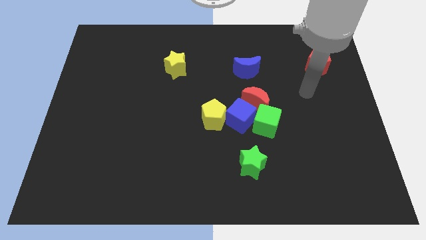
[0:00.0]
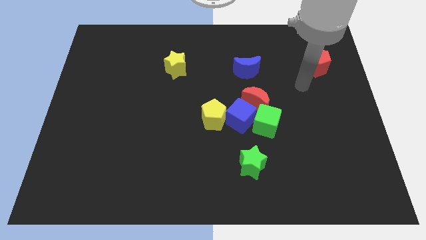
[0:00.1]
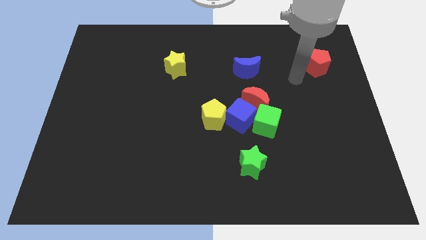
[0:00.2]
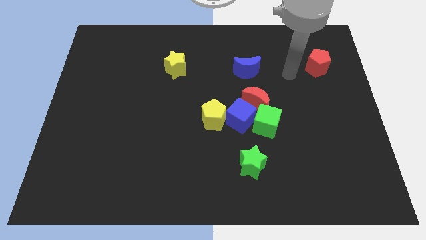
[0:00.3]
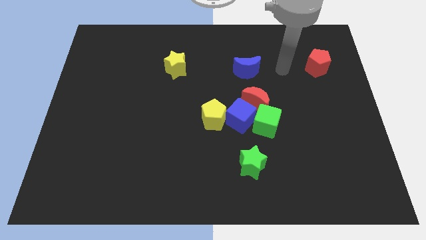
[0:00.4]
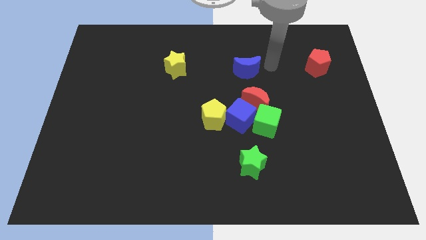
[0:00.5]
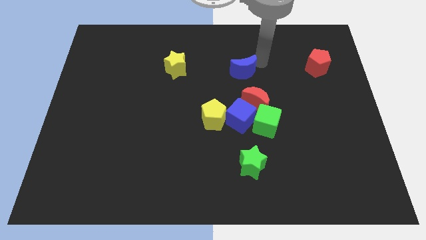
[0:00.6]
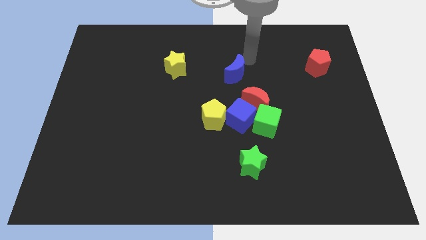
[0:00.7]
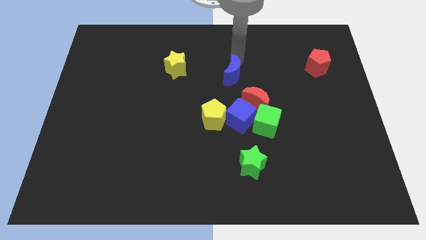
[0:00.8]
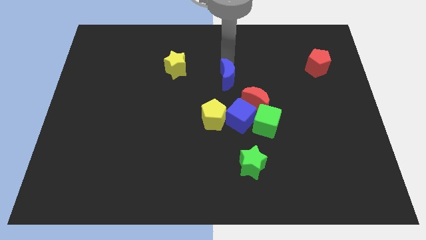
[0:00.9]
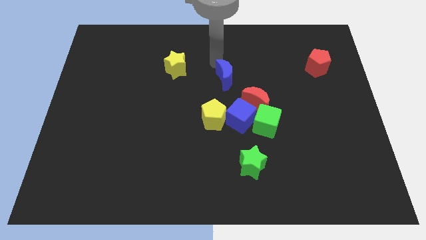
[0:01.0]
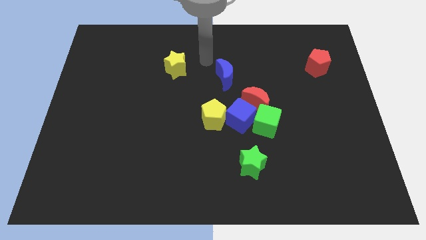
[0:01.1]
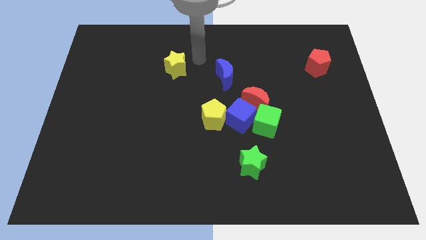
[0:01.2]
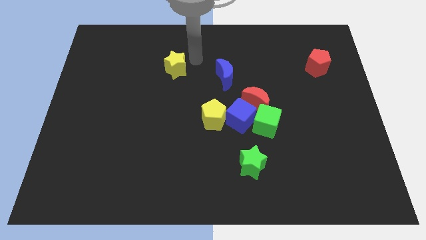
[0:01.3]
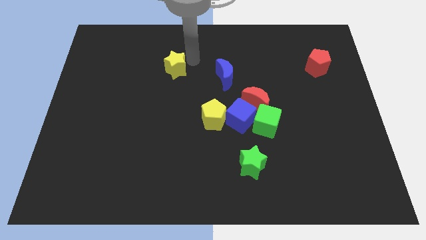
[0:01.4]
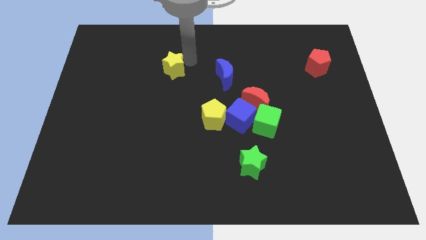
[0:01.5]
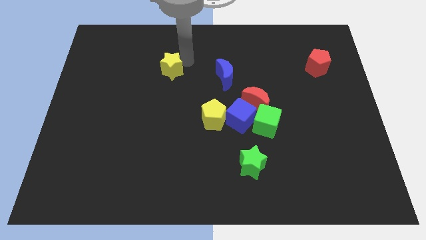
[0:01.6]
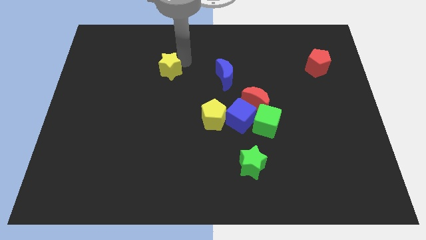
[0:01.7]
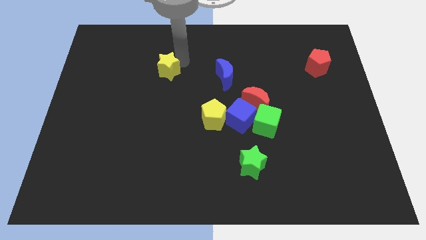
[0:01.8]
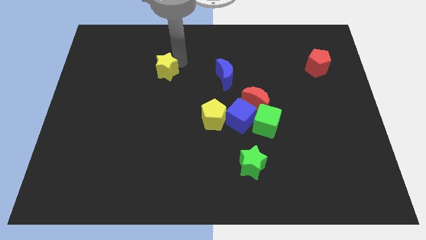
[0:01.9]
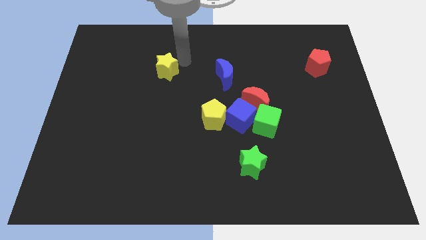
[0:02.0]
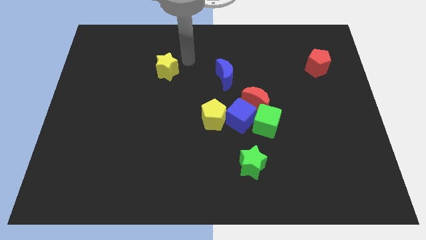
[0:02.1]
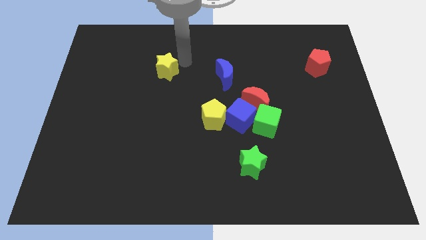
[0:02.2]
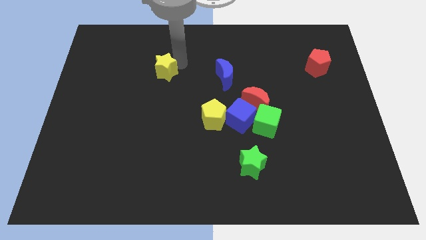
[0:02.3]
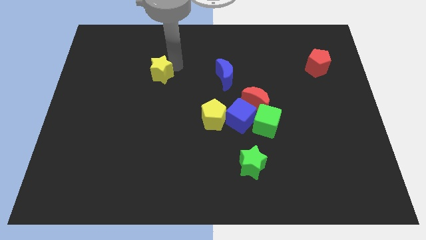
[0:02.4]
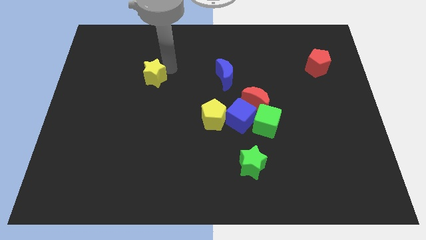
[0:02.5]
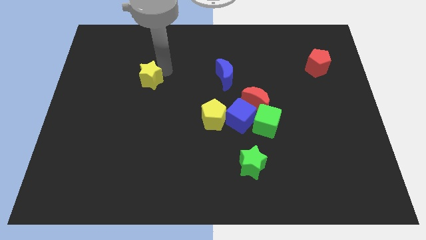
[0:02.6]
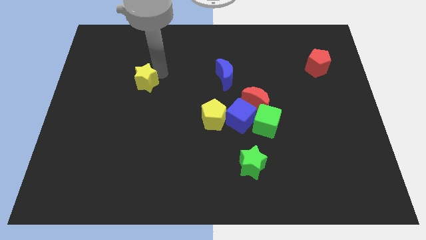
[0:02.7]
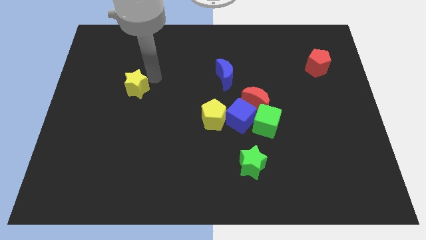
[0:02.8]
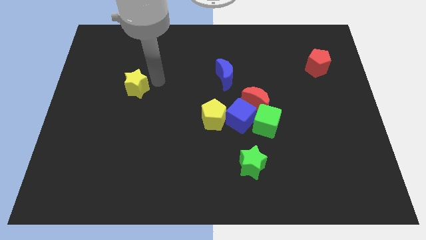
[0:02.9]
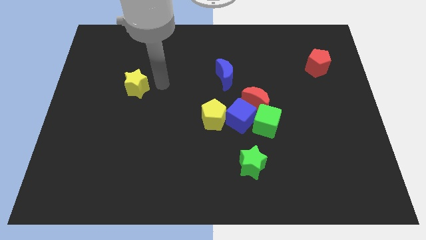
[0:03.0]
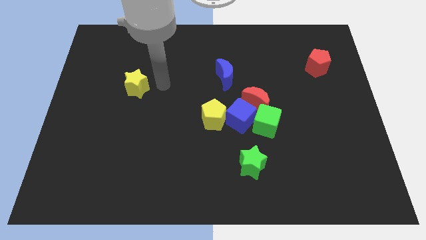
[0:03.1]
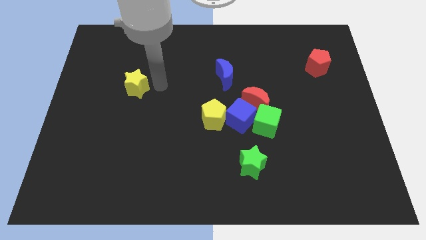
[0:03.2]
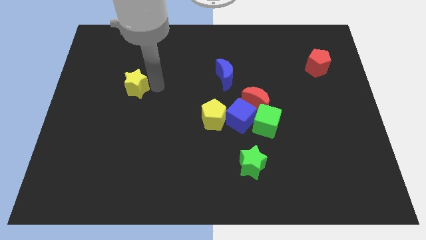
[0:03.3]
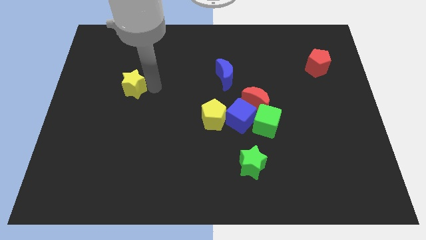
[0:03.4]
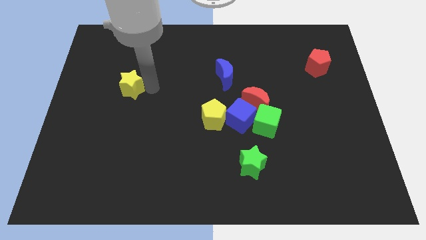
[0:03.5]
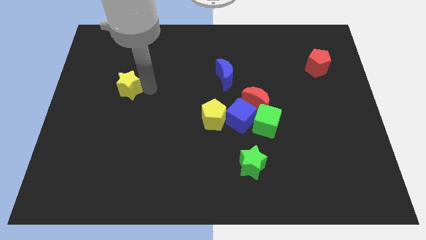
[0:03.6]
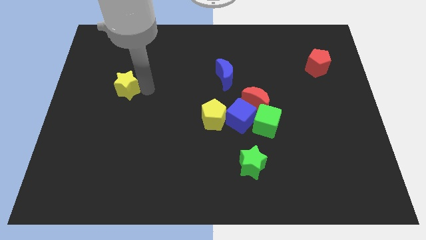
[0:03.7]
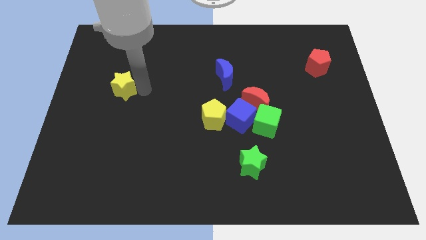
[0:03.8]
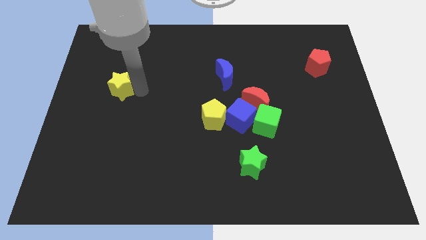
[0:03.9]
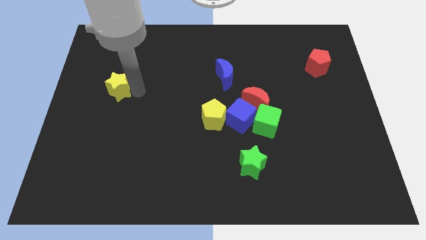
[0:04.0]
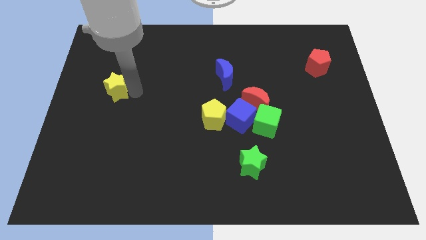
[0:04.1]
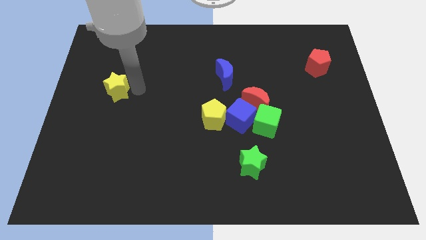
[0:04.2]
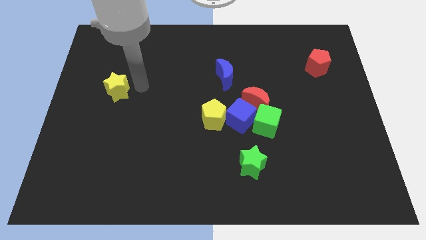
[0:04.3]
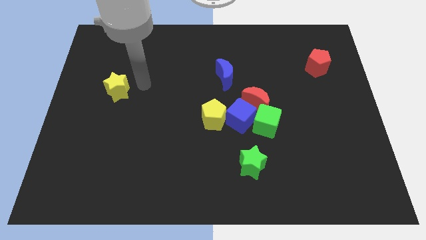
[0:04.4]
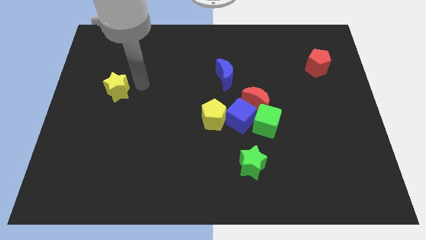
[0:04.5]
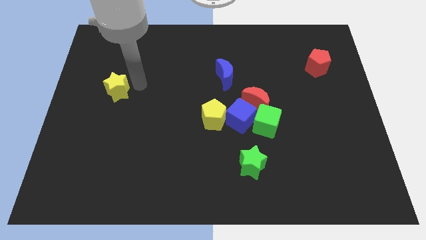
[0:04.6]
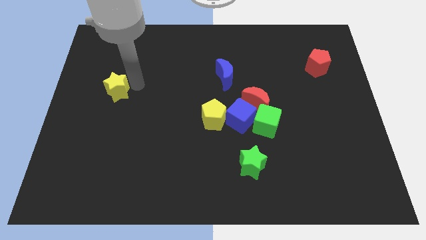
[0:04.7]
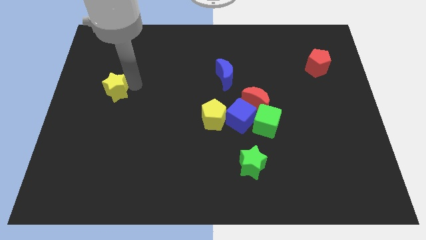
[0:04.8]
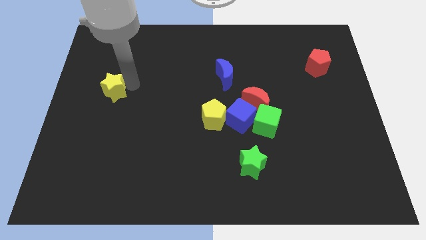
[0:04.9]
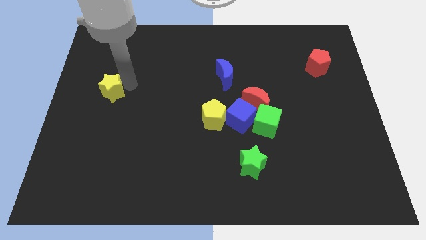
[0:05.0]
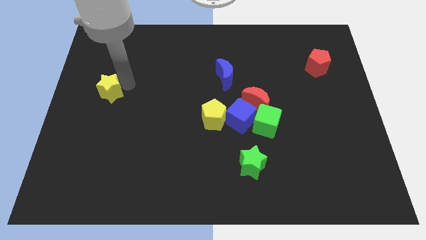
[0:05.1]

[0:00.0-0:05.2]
move the yellow star to the left side
